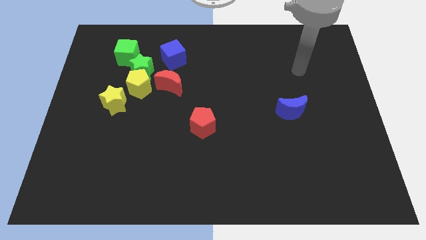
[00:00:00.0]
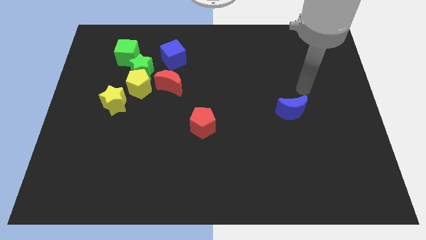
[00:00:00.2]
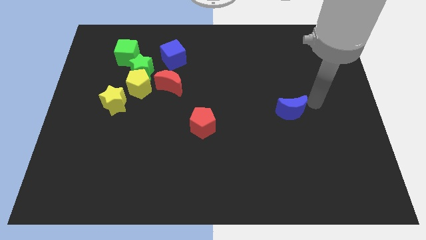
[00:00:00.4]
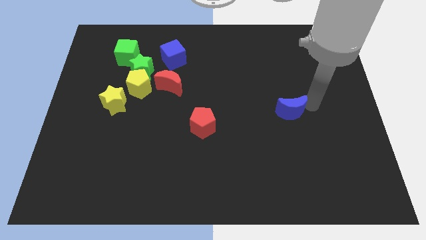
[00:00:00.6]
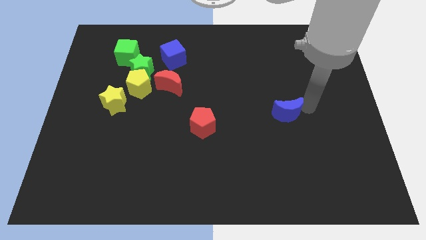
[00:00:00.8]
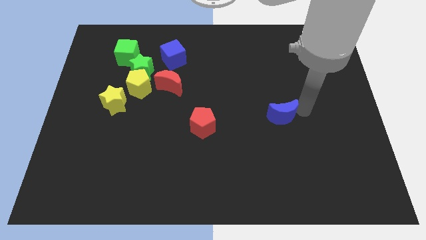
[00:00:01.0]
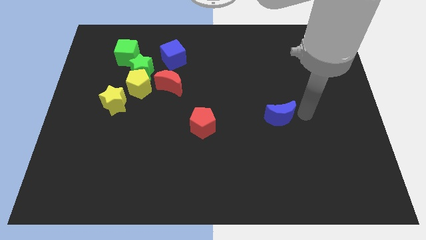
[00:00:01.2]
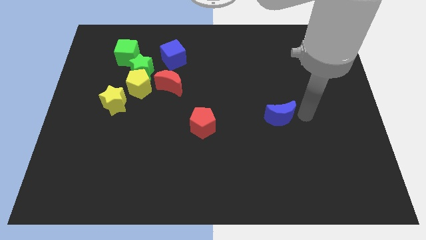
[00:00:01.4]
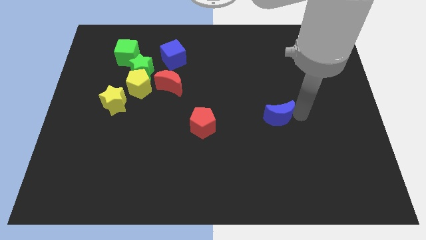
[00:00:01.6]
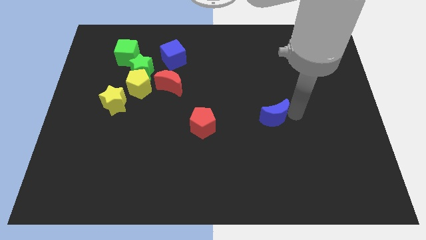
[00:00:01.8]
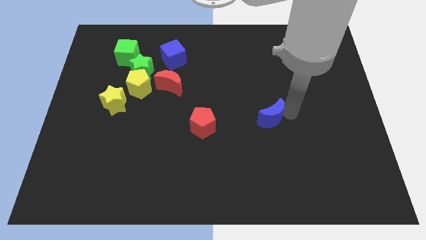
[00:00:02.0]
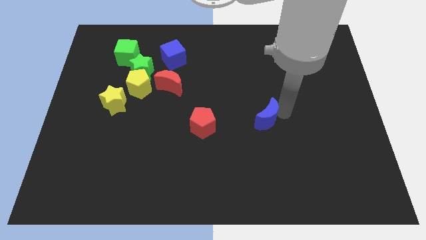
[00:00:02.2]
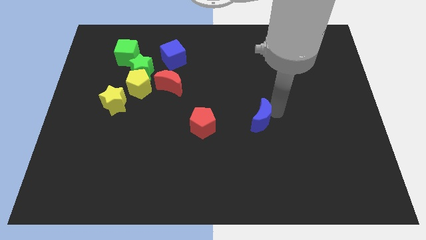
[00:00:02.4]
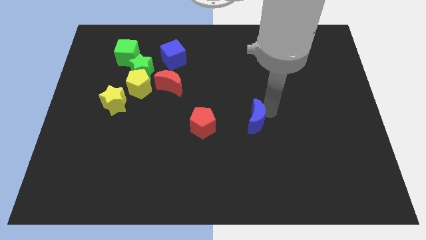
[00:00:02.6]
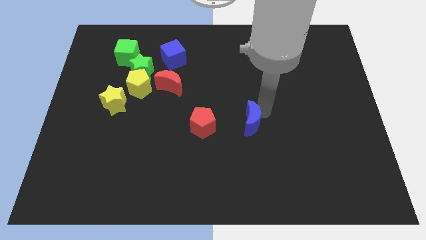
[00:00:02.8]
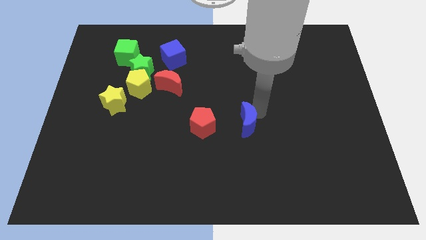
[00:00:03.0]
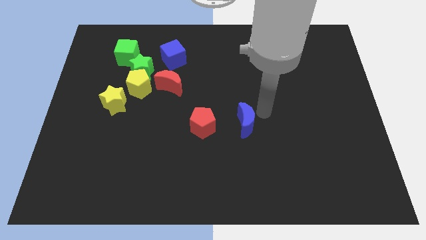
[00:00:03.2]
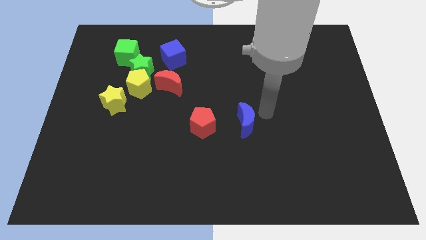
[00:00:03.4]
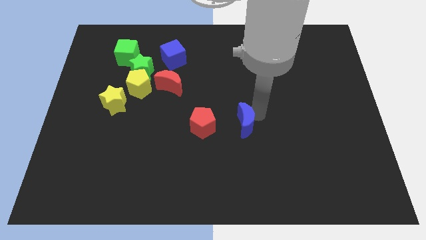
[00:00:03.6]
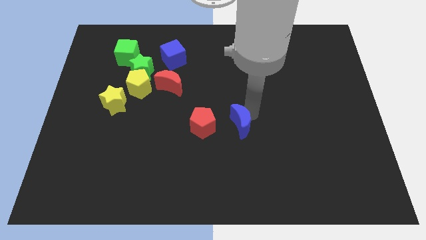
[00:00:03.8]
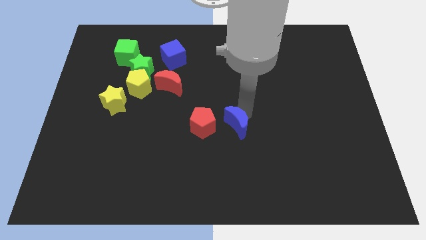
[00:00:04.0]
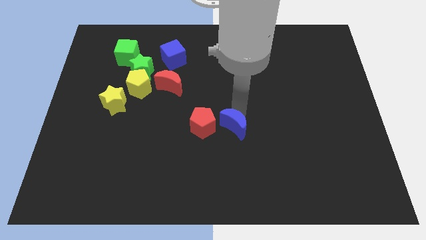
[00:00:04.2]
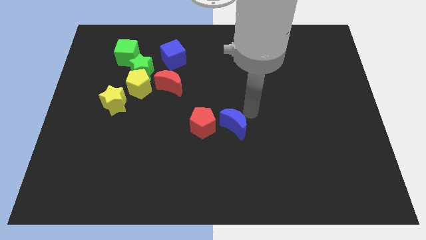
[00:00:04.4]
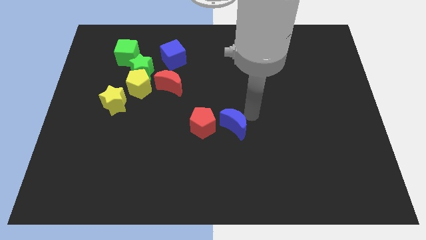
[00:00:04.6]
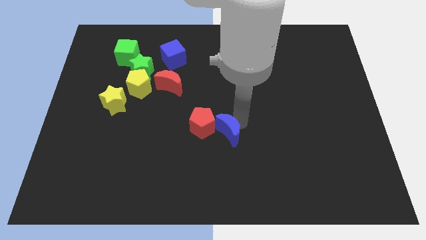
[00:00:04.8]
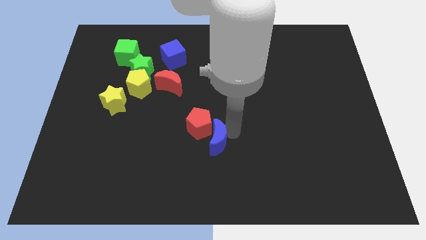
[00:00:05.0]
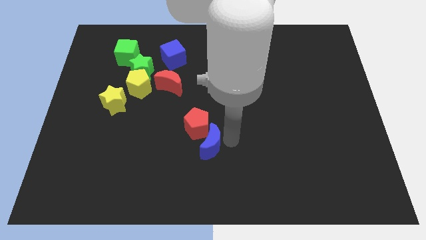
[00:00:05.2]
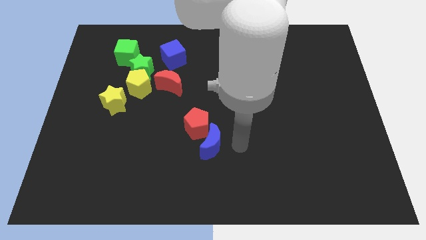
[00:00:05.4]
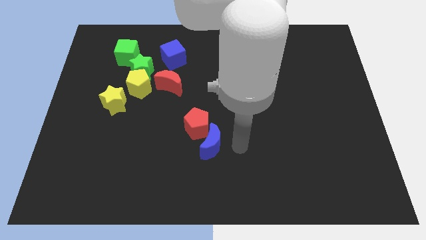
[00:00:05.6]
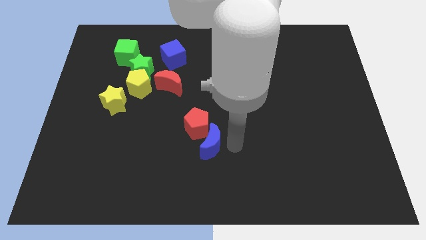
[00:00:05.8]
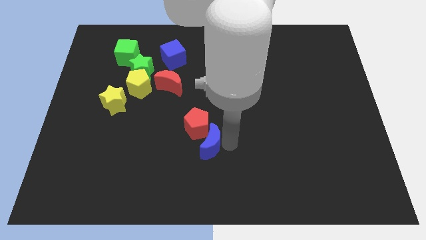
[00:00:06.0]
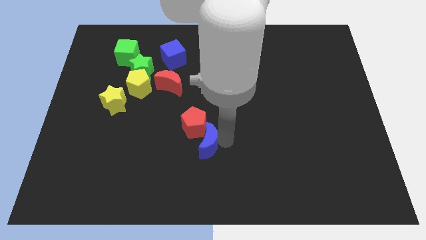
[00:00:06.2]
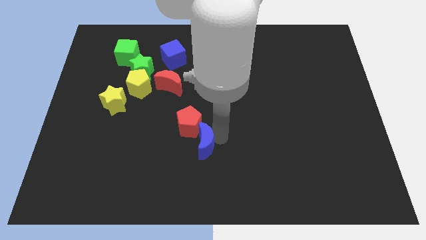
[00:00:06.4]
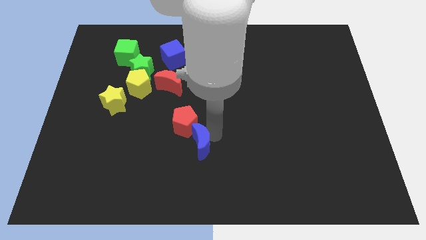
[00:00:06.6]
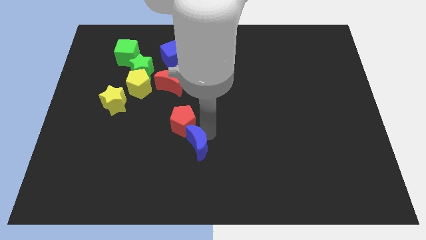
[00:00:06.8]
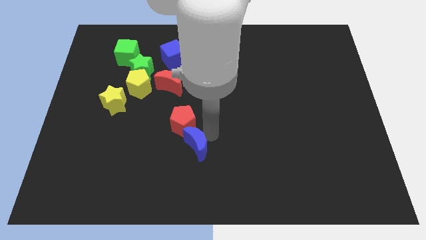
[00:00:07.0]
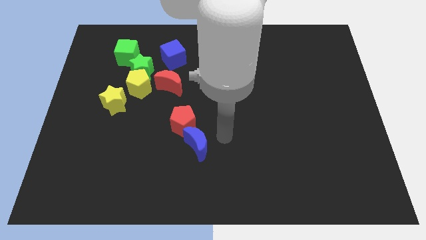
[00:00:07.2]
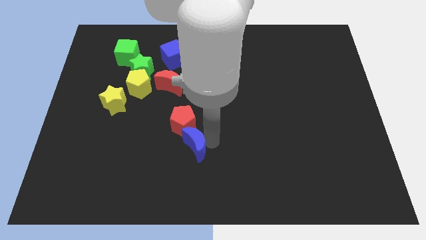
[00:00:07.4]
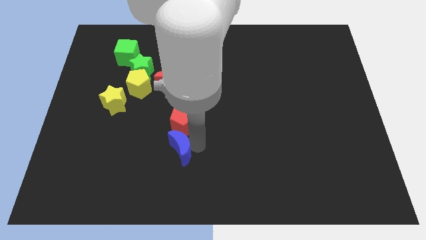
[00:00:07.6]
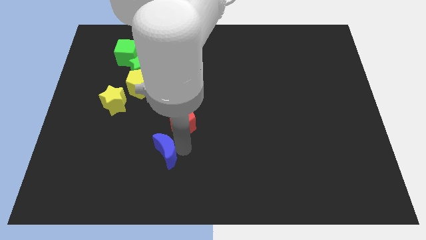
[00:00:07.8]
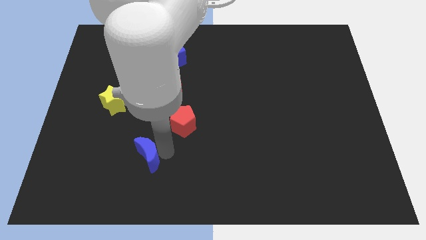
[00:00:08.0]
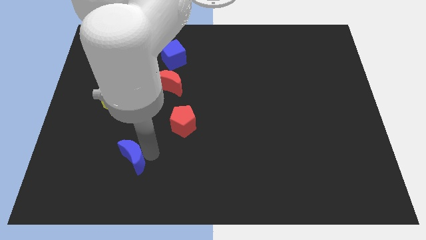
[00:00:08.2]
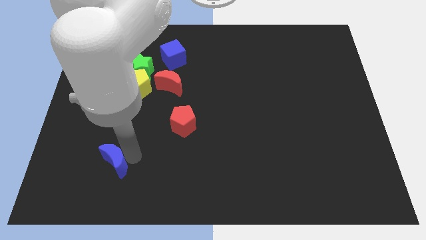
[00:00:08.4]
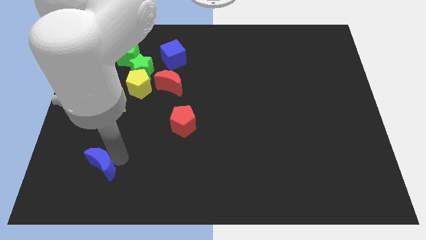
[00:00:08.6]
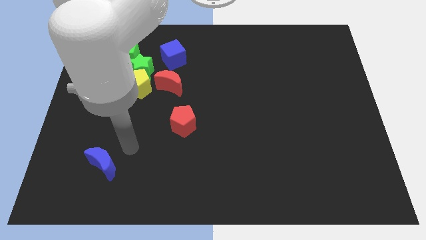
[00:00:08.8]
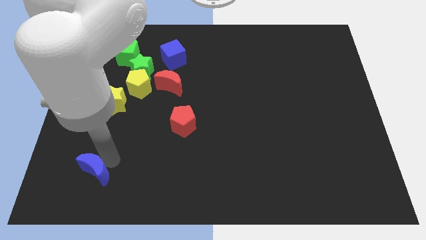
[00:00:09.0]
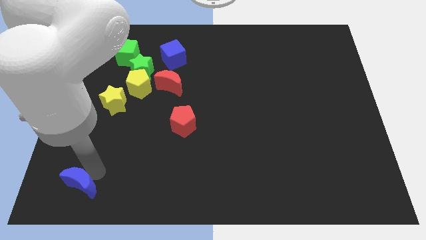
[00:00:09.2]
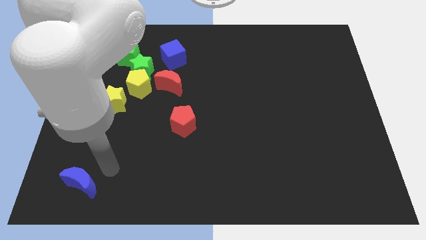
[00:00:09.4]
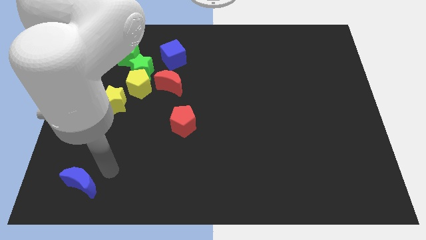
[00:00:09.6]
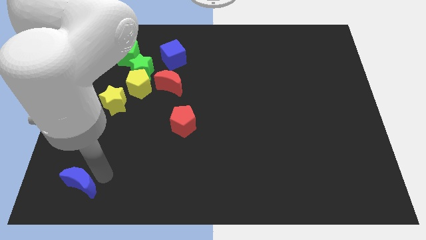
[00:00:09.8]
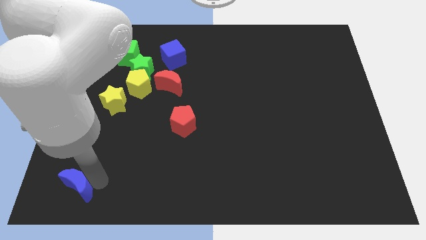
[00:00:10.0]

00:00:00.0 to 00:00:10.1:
slide the blue moon to the lower left corner
